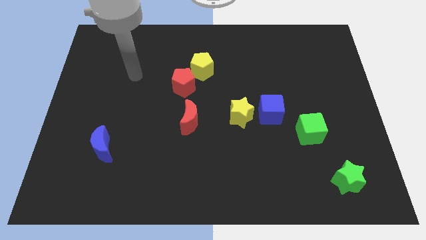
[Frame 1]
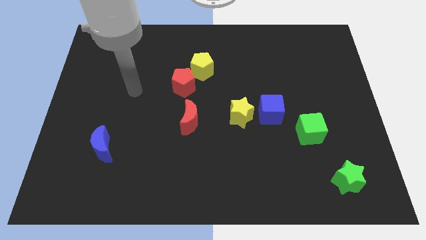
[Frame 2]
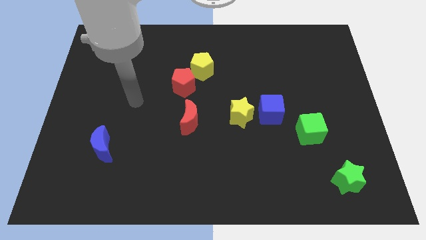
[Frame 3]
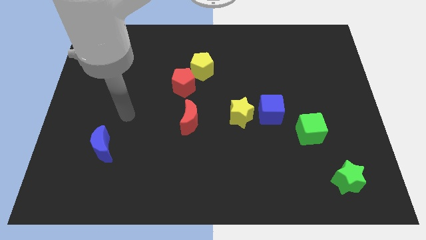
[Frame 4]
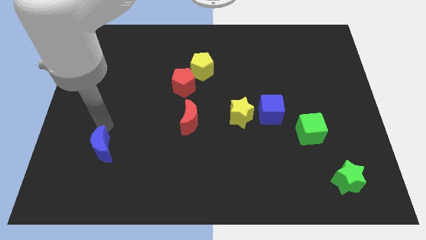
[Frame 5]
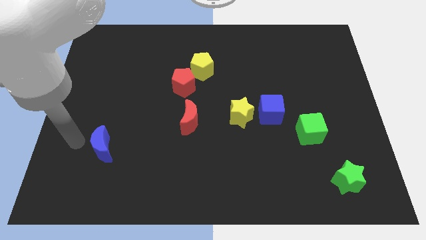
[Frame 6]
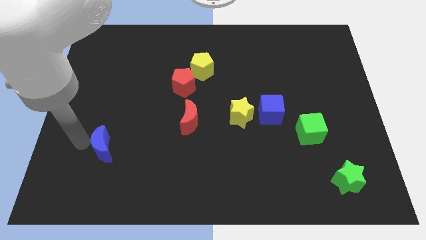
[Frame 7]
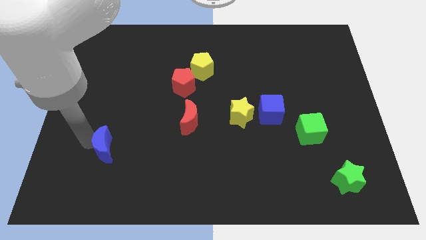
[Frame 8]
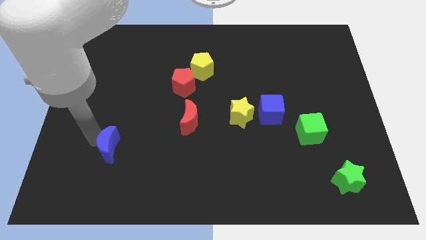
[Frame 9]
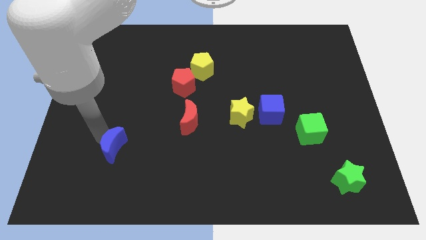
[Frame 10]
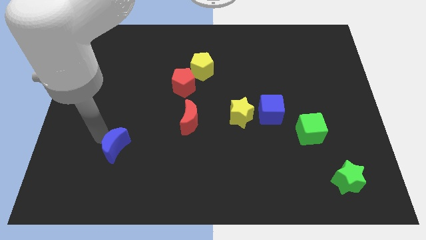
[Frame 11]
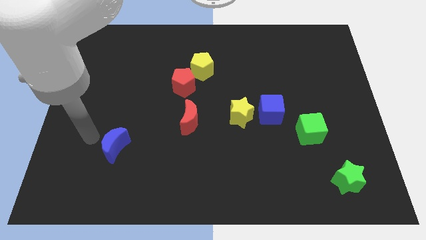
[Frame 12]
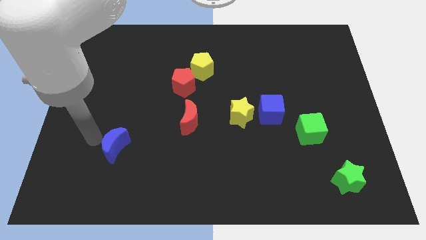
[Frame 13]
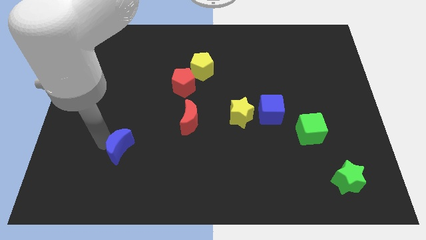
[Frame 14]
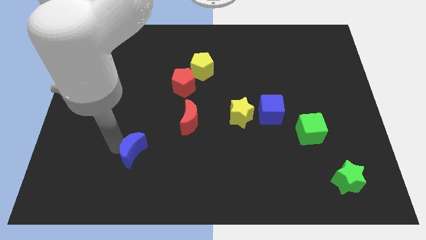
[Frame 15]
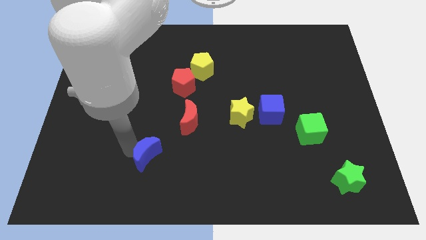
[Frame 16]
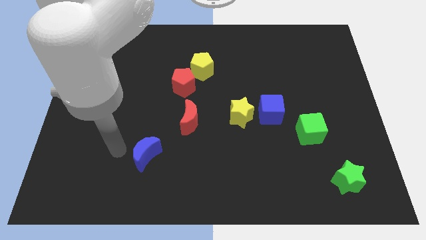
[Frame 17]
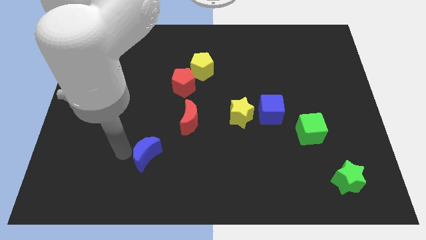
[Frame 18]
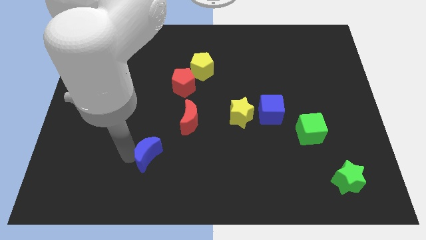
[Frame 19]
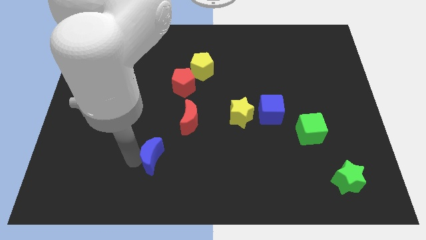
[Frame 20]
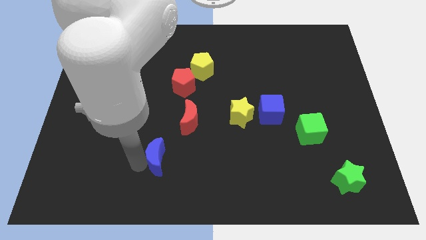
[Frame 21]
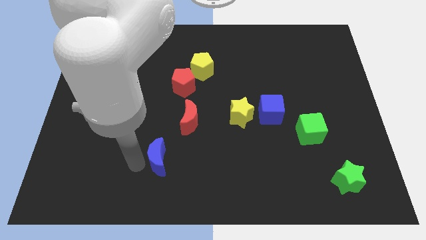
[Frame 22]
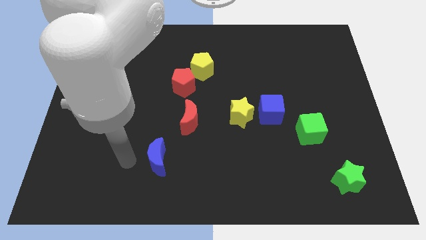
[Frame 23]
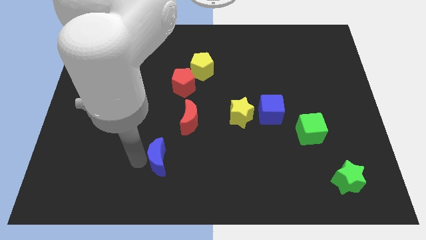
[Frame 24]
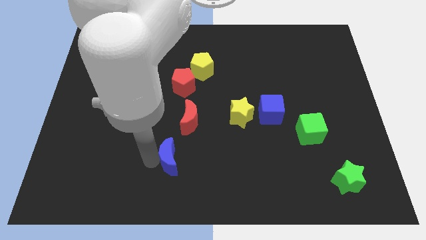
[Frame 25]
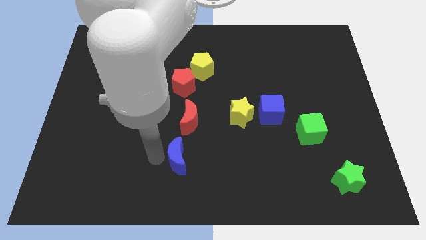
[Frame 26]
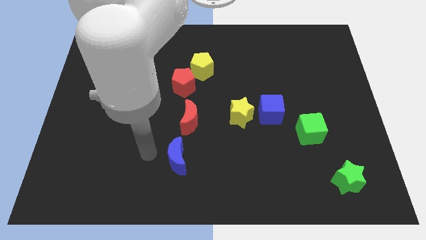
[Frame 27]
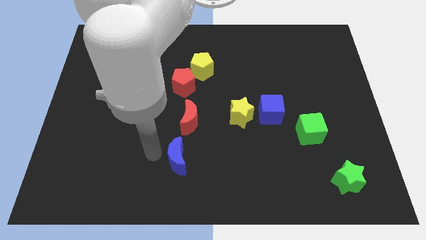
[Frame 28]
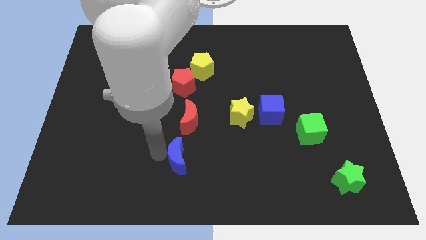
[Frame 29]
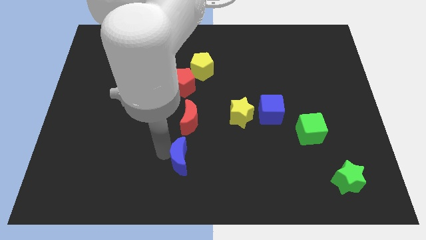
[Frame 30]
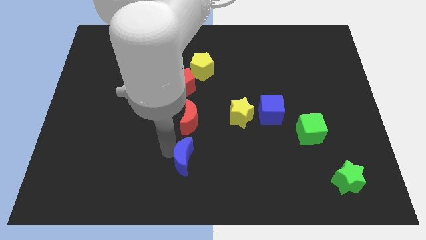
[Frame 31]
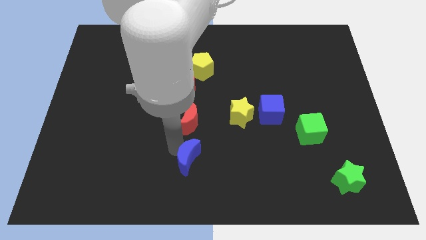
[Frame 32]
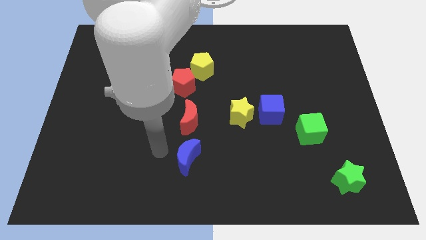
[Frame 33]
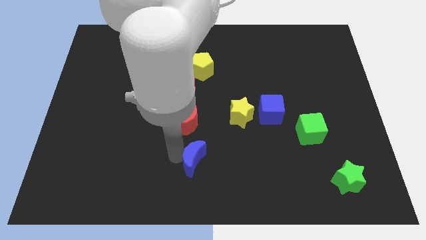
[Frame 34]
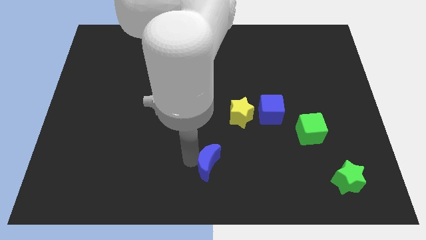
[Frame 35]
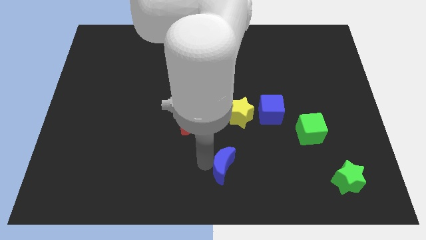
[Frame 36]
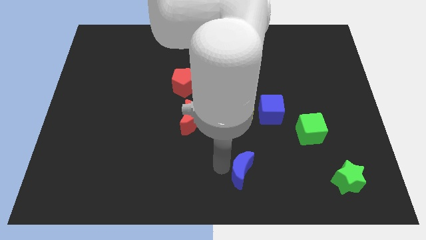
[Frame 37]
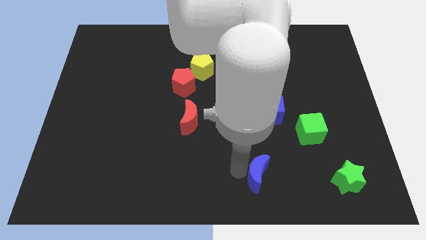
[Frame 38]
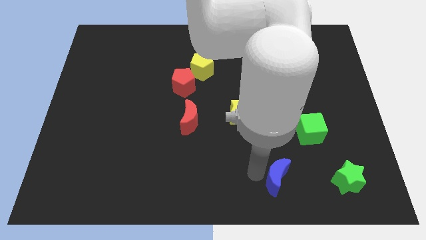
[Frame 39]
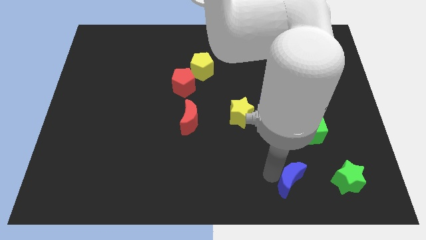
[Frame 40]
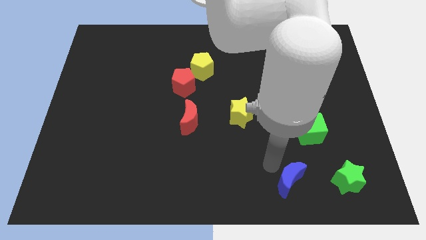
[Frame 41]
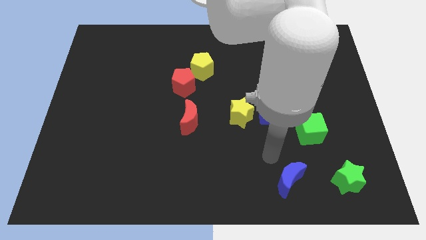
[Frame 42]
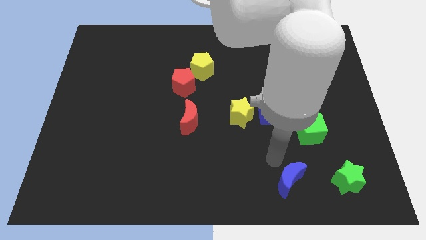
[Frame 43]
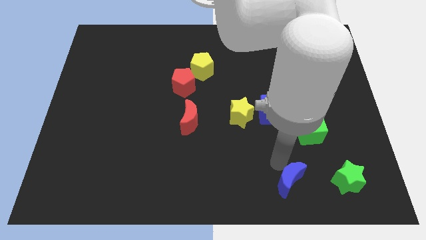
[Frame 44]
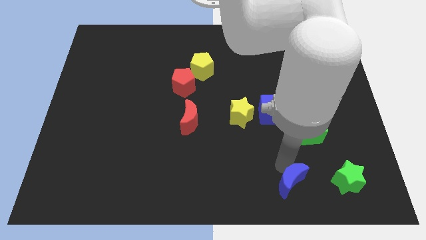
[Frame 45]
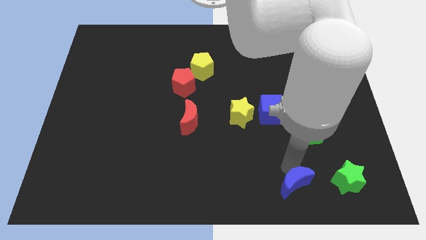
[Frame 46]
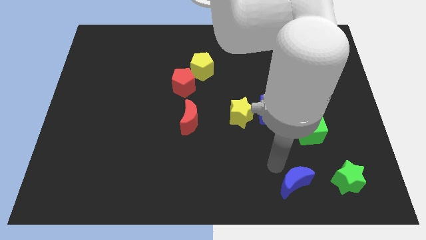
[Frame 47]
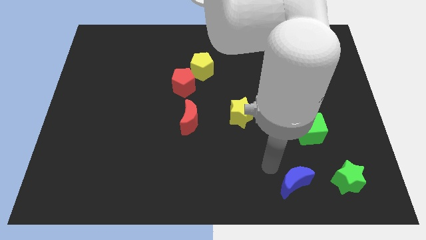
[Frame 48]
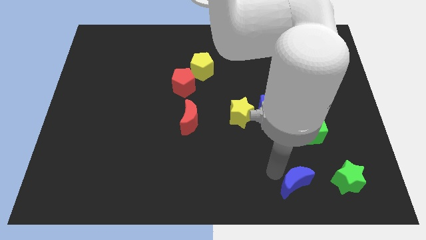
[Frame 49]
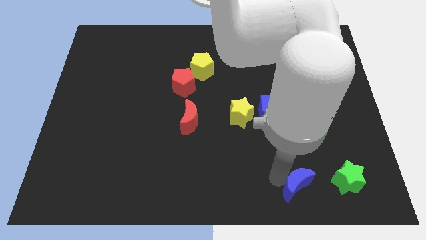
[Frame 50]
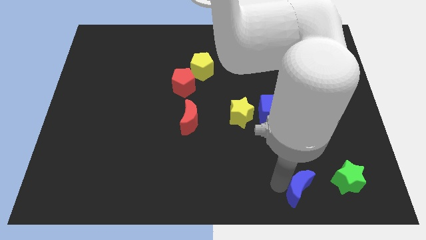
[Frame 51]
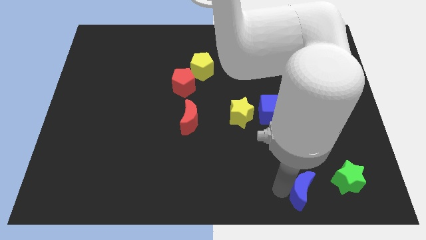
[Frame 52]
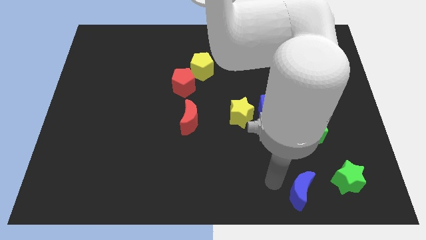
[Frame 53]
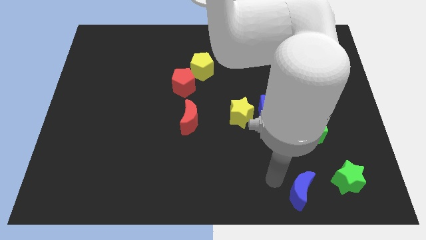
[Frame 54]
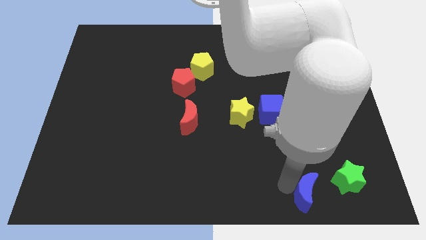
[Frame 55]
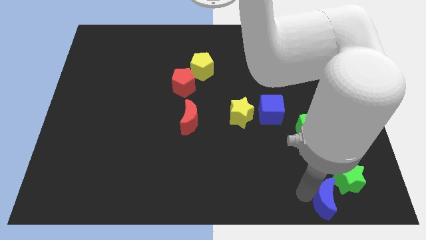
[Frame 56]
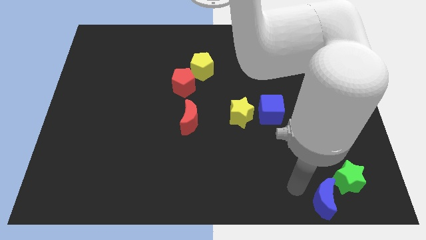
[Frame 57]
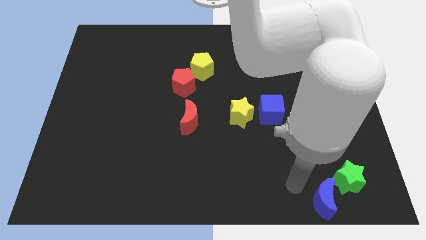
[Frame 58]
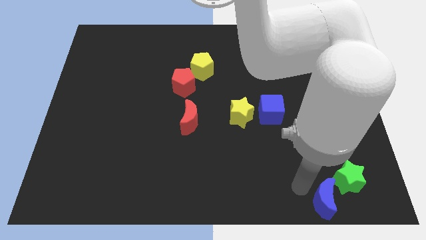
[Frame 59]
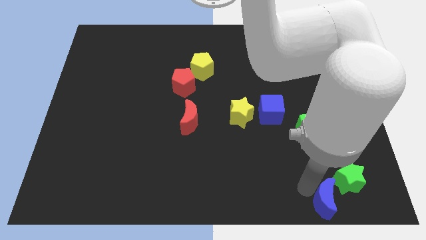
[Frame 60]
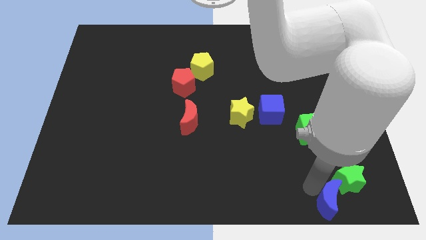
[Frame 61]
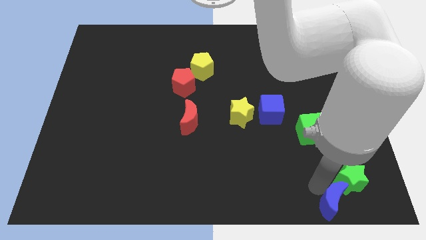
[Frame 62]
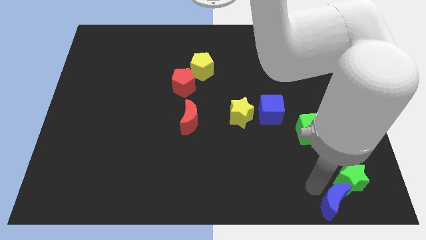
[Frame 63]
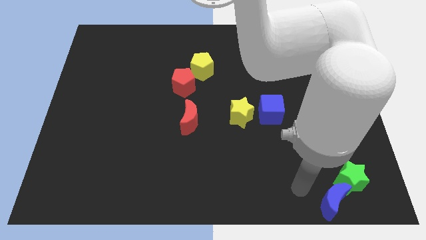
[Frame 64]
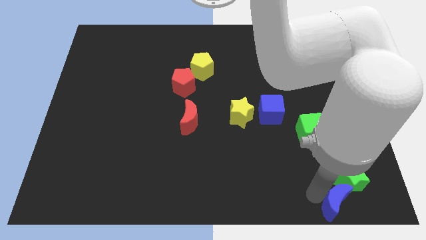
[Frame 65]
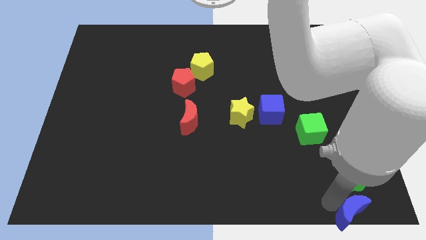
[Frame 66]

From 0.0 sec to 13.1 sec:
push the blue moon to the bottom right of the board
